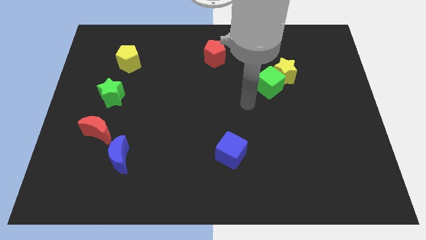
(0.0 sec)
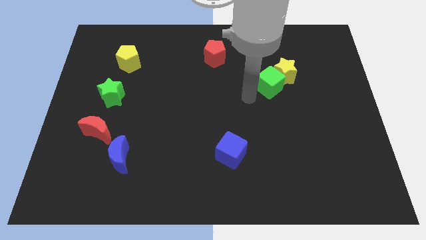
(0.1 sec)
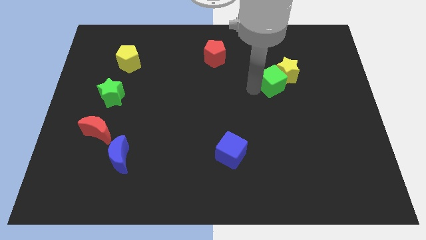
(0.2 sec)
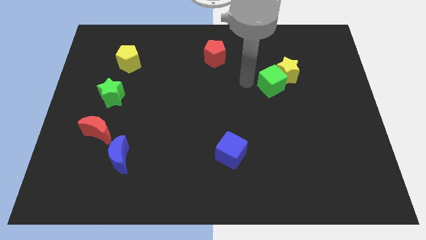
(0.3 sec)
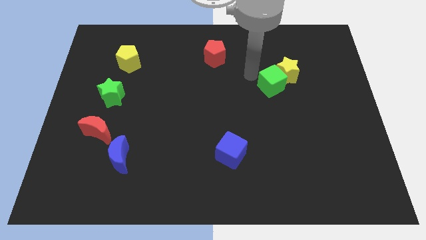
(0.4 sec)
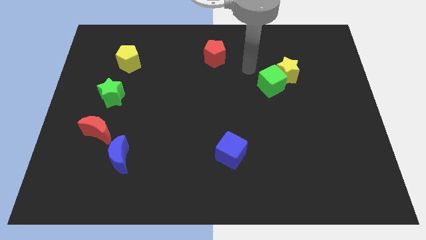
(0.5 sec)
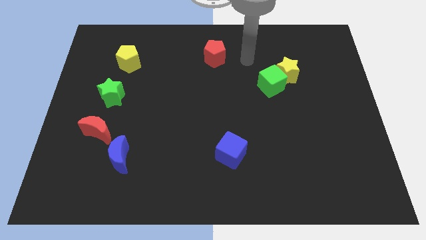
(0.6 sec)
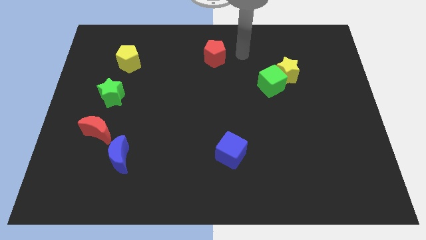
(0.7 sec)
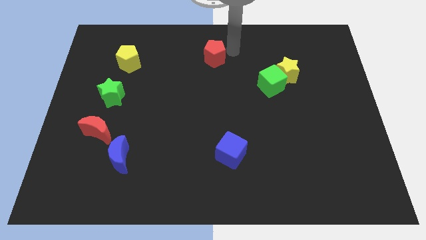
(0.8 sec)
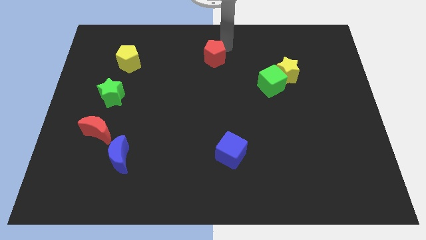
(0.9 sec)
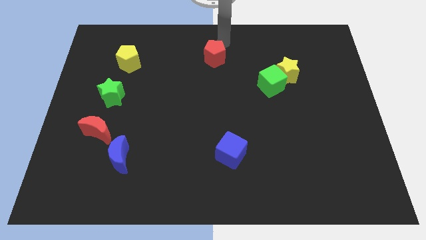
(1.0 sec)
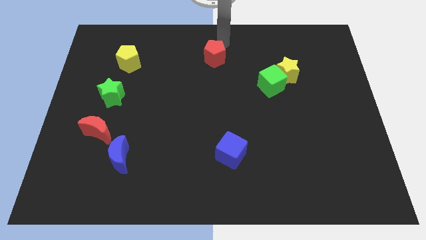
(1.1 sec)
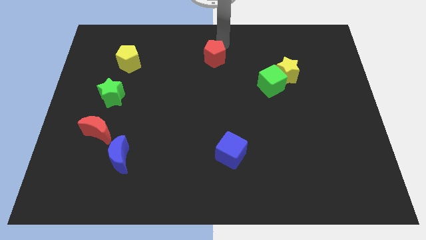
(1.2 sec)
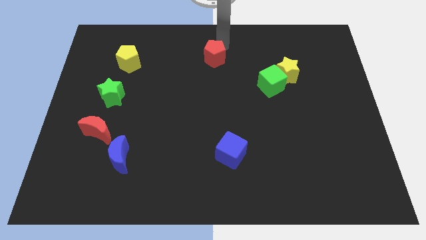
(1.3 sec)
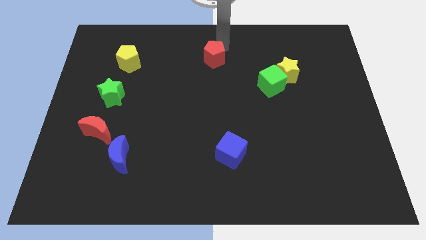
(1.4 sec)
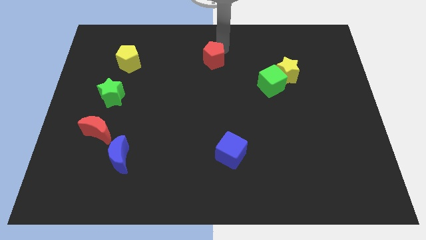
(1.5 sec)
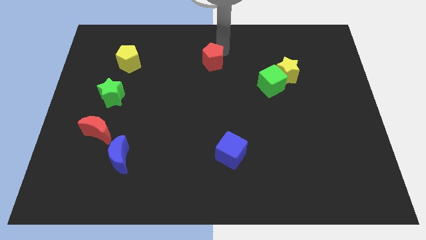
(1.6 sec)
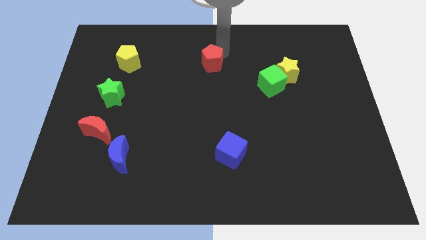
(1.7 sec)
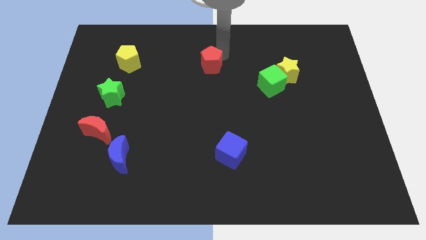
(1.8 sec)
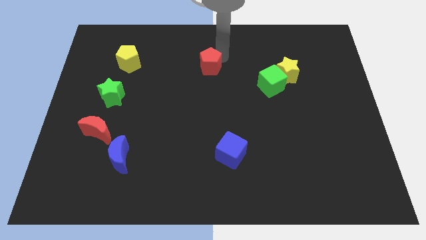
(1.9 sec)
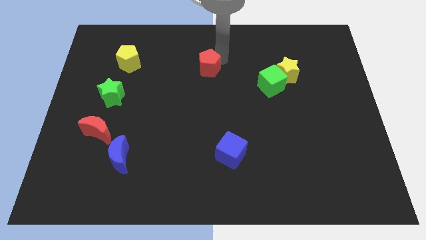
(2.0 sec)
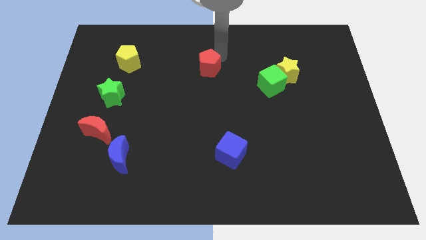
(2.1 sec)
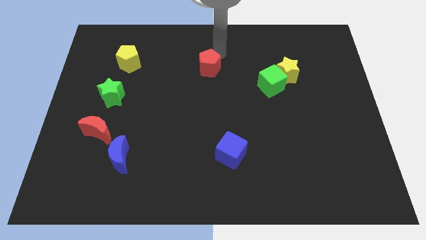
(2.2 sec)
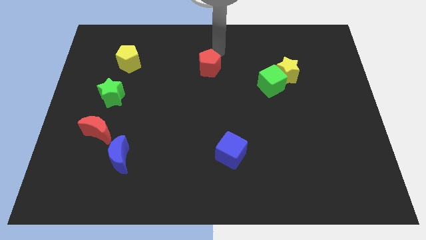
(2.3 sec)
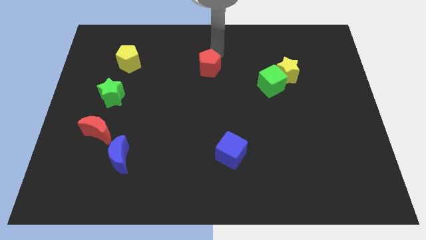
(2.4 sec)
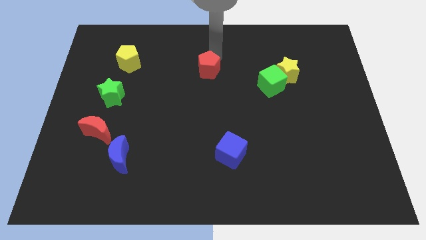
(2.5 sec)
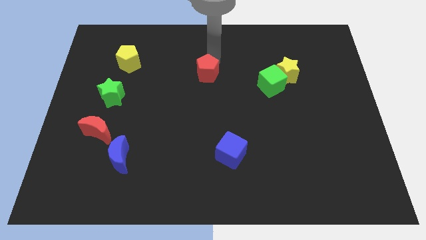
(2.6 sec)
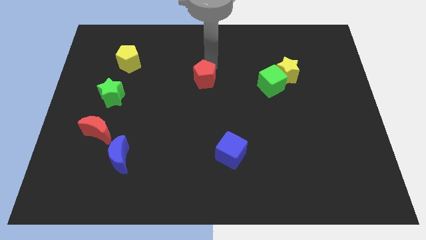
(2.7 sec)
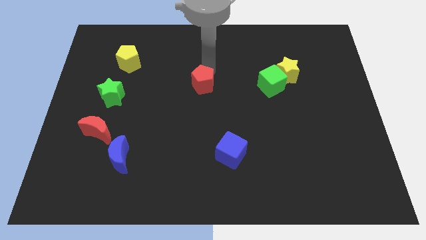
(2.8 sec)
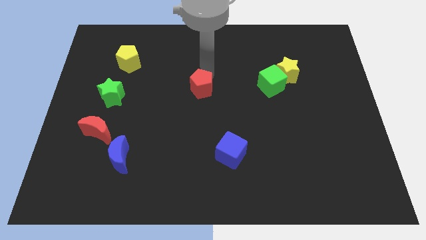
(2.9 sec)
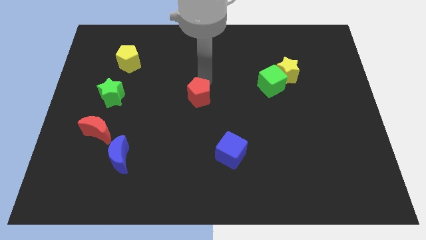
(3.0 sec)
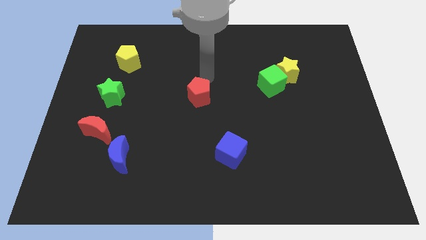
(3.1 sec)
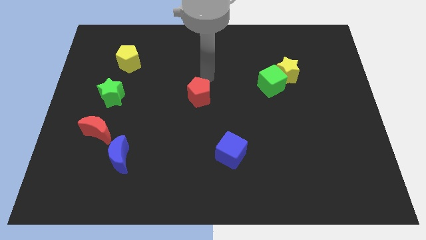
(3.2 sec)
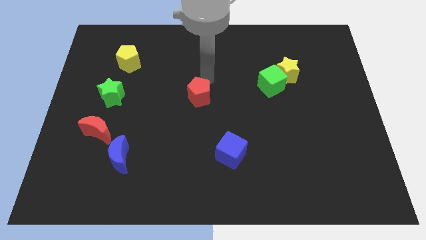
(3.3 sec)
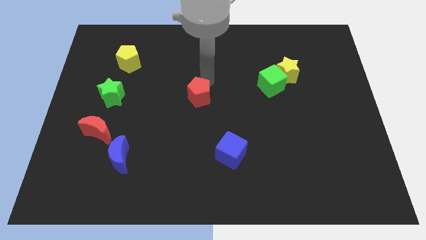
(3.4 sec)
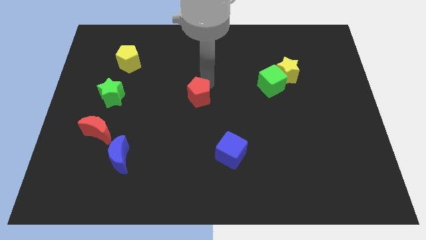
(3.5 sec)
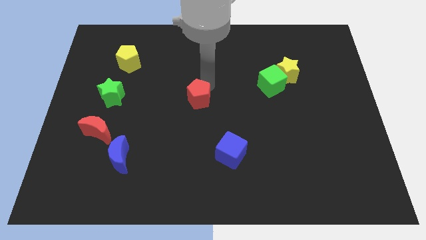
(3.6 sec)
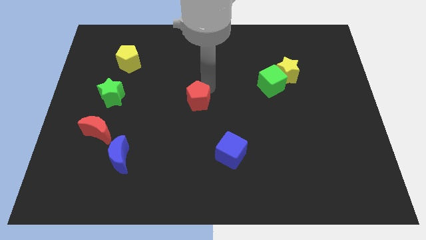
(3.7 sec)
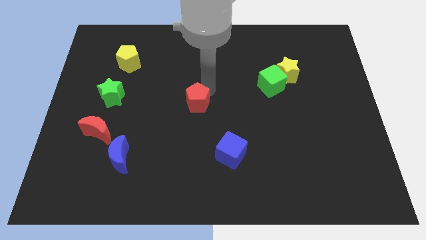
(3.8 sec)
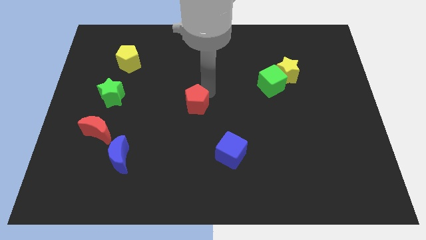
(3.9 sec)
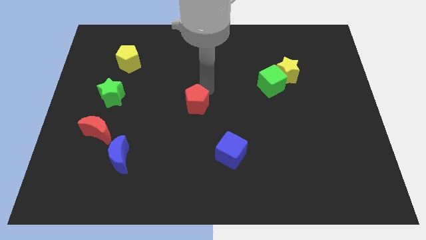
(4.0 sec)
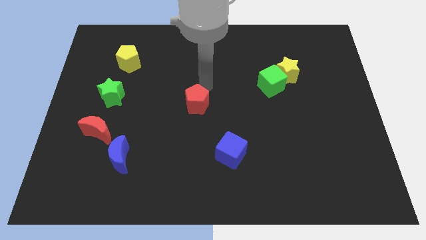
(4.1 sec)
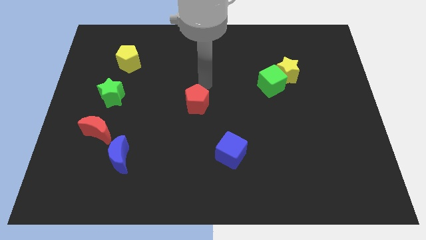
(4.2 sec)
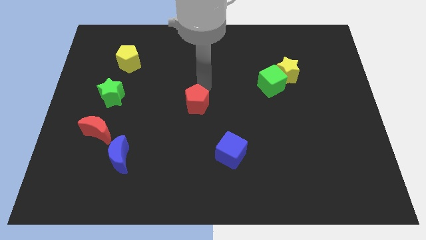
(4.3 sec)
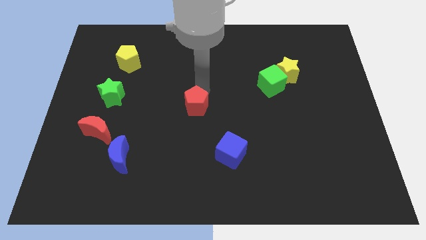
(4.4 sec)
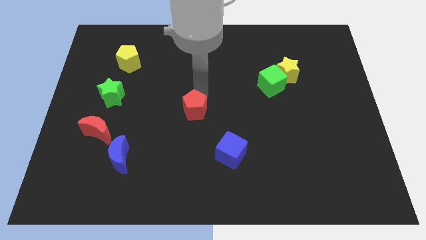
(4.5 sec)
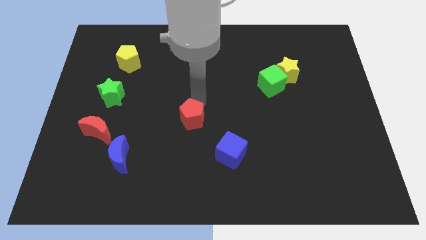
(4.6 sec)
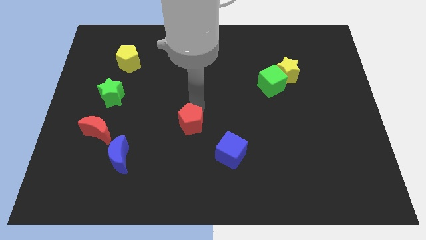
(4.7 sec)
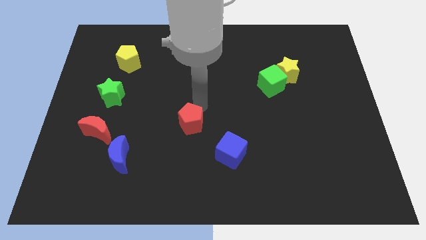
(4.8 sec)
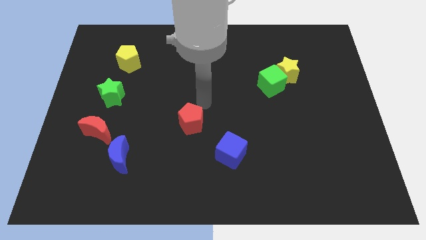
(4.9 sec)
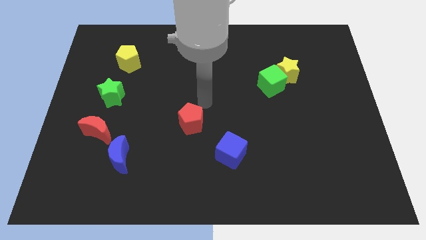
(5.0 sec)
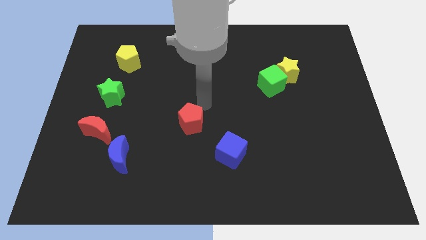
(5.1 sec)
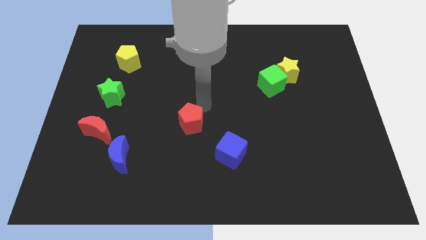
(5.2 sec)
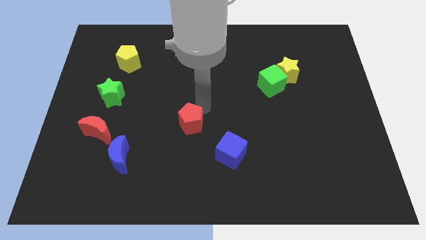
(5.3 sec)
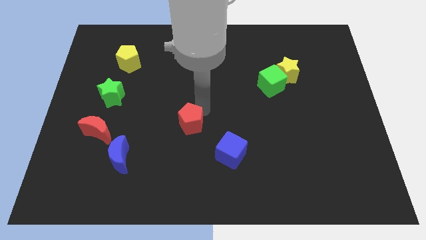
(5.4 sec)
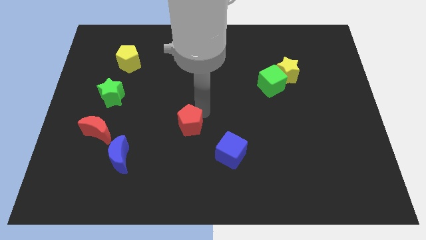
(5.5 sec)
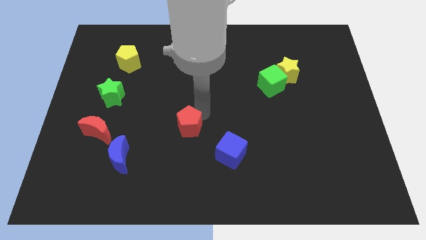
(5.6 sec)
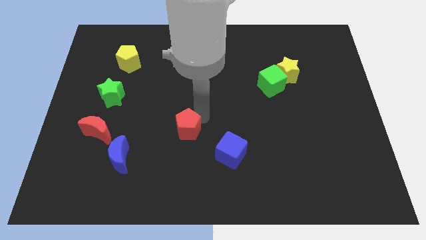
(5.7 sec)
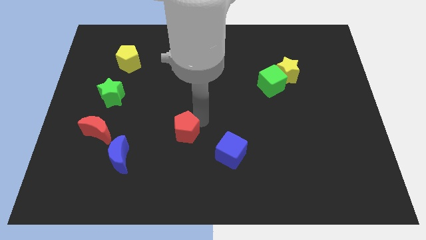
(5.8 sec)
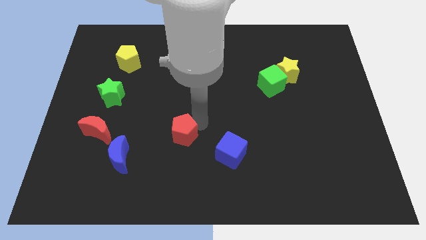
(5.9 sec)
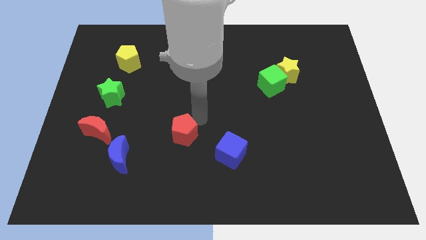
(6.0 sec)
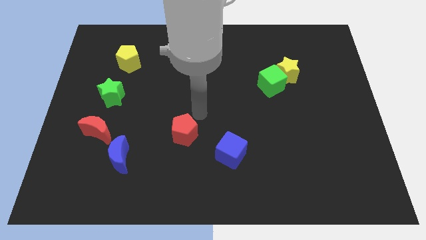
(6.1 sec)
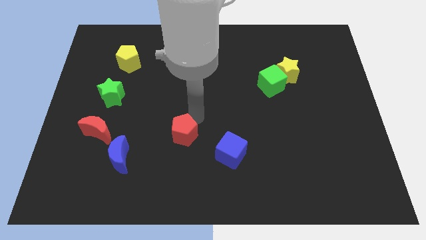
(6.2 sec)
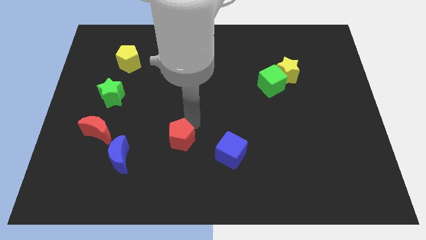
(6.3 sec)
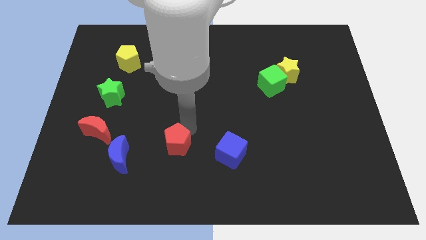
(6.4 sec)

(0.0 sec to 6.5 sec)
put the red pentagon to the right of the blue moon
